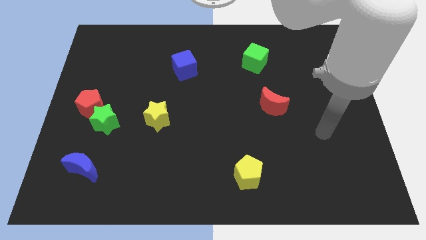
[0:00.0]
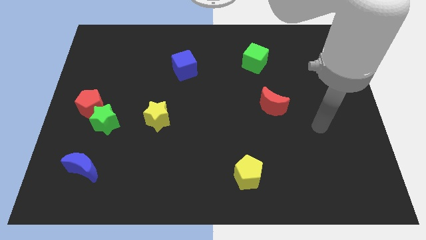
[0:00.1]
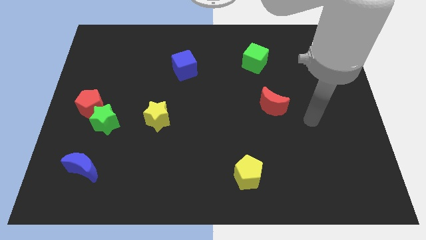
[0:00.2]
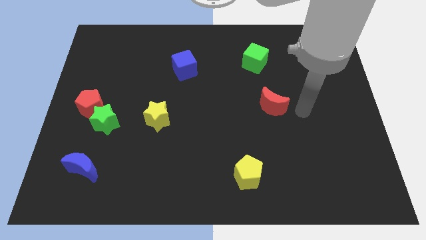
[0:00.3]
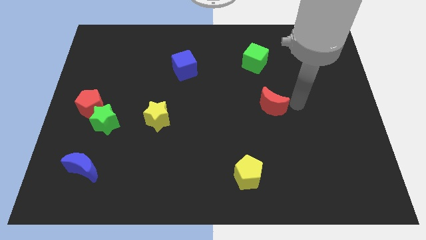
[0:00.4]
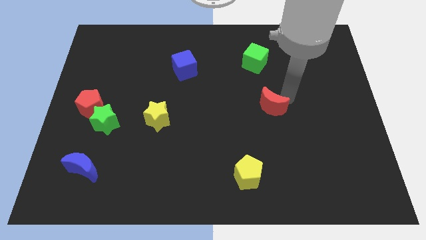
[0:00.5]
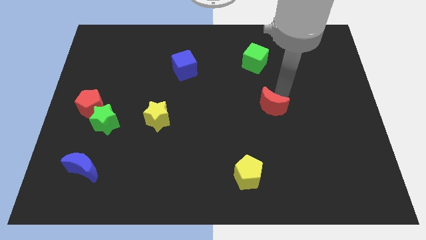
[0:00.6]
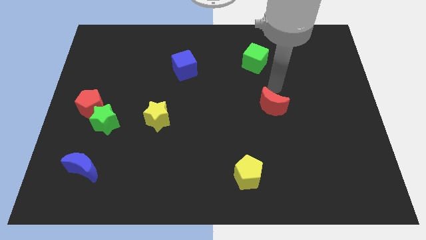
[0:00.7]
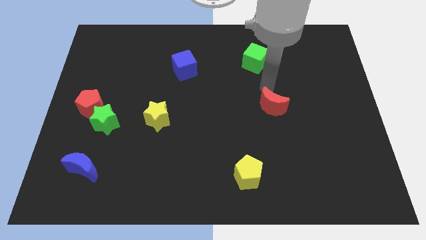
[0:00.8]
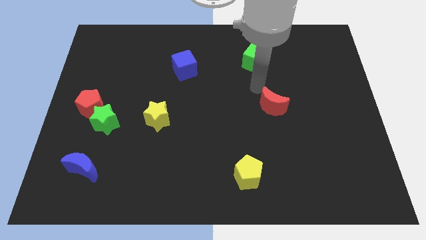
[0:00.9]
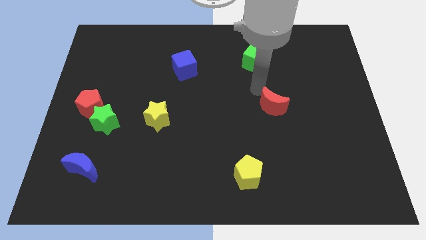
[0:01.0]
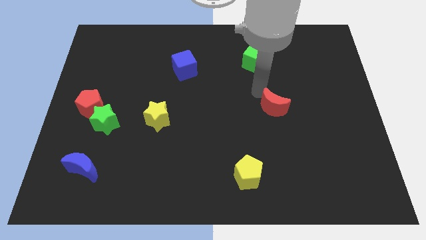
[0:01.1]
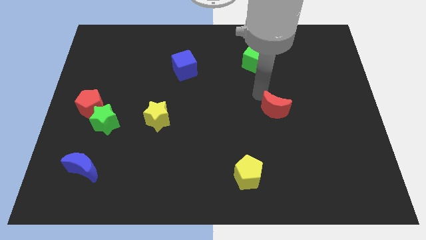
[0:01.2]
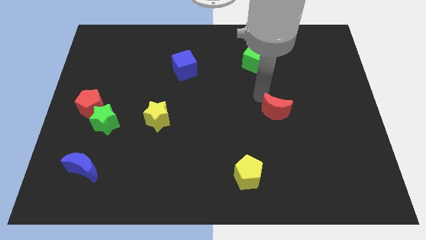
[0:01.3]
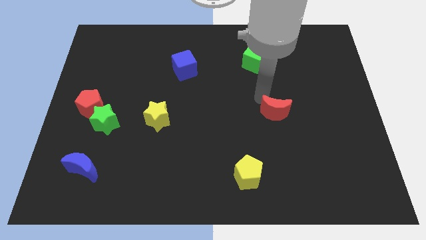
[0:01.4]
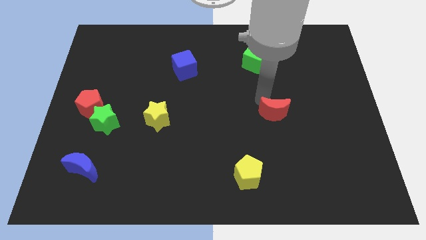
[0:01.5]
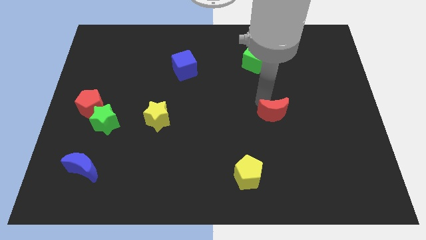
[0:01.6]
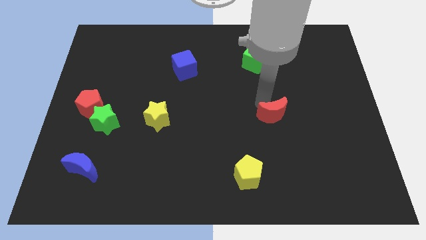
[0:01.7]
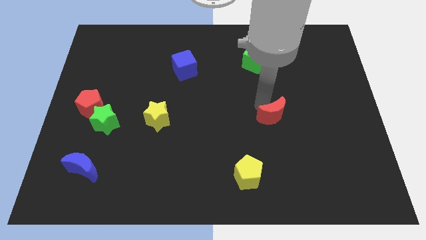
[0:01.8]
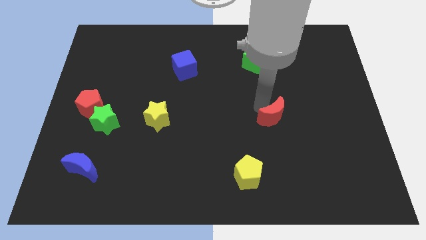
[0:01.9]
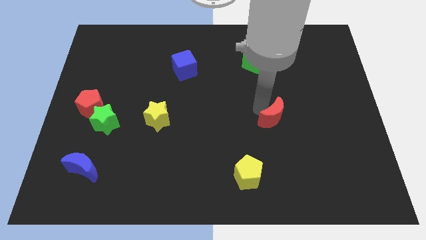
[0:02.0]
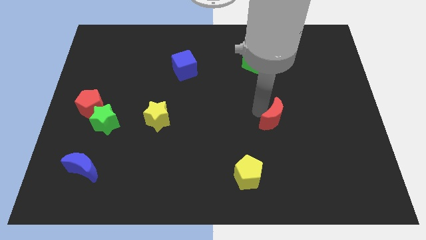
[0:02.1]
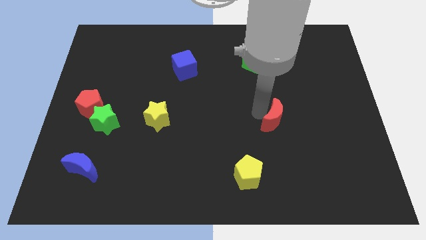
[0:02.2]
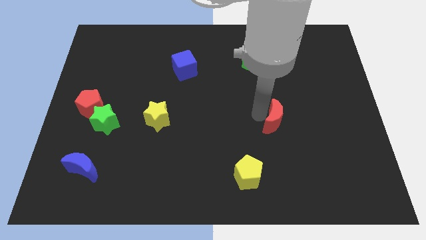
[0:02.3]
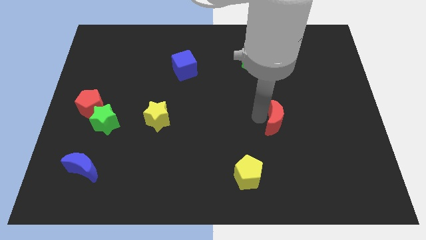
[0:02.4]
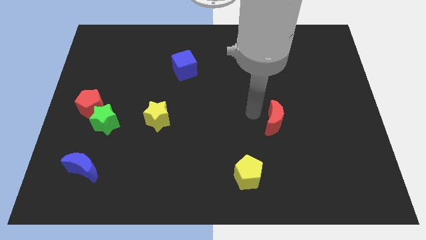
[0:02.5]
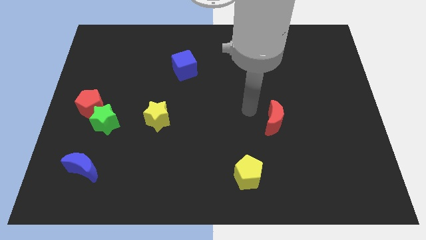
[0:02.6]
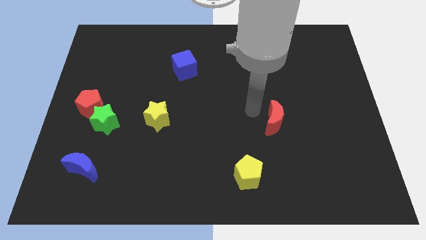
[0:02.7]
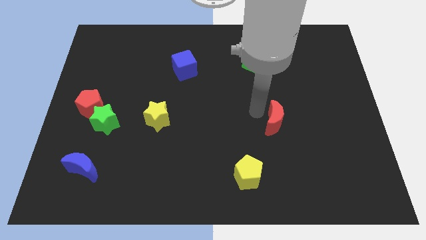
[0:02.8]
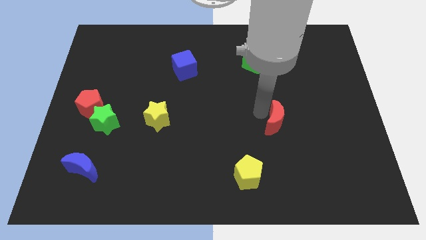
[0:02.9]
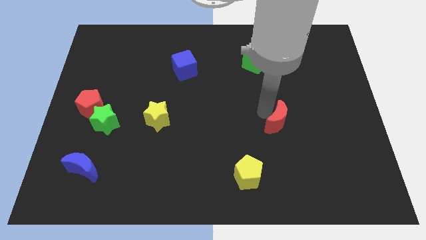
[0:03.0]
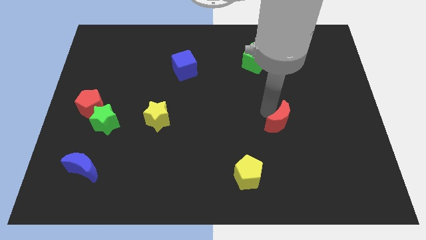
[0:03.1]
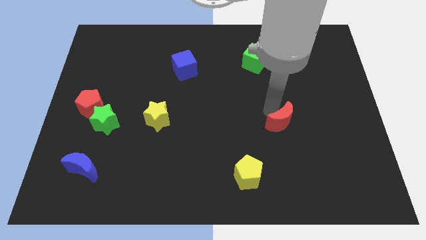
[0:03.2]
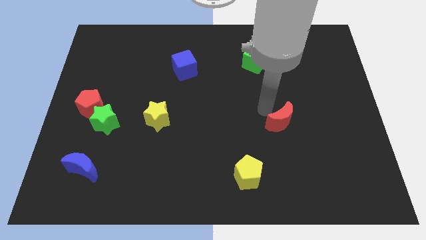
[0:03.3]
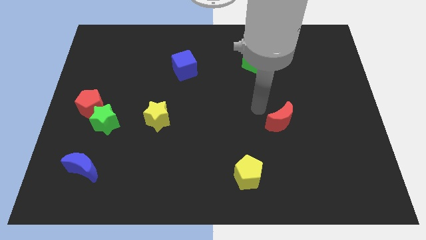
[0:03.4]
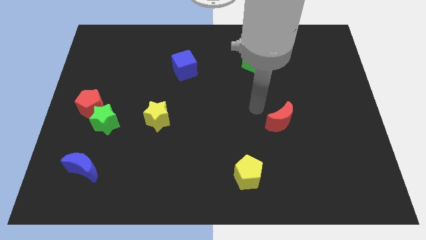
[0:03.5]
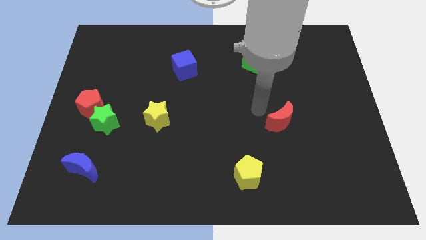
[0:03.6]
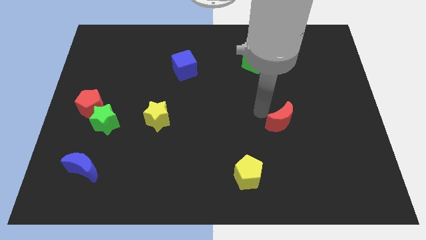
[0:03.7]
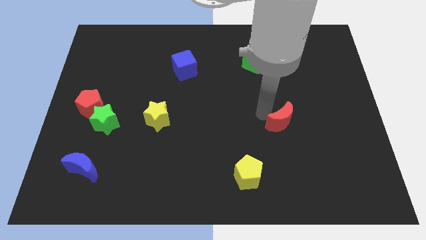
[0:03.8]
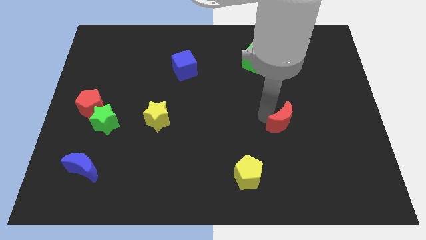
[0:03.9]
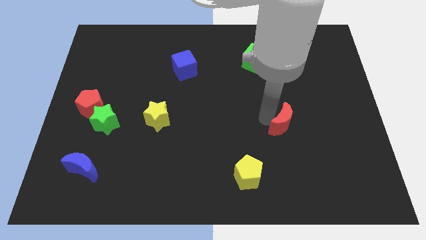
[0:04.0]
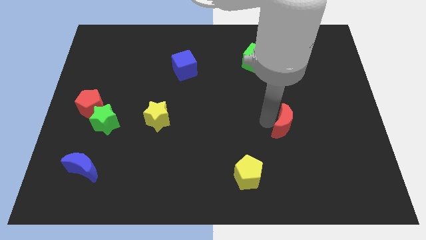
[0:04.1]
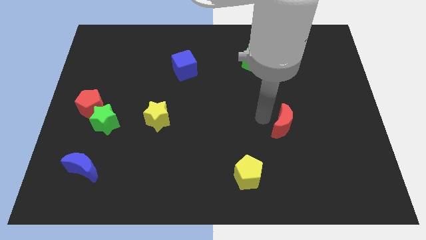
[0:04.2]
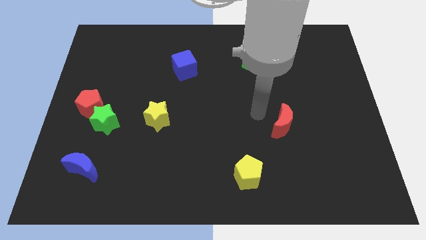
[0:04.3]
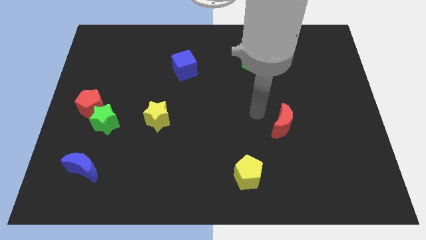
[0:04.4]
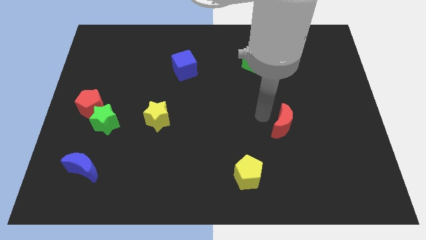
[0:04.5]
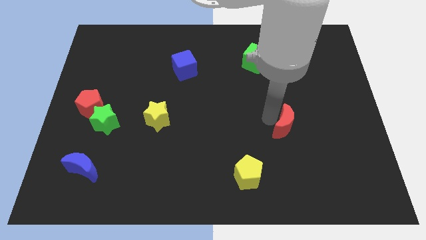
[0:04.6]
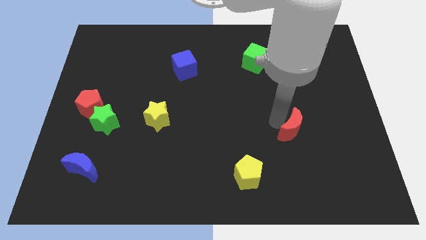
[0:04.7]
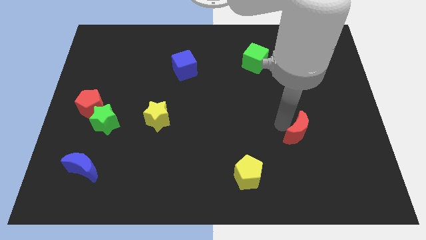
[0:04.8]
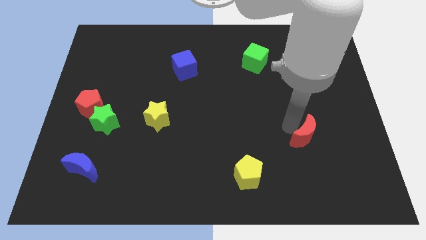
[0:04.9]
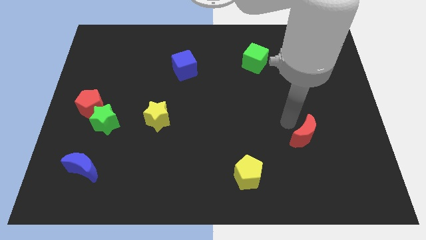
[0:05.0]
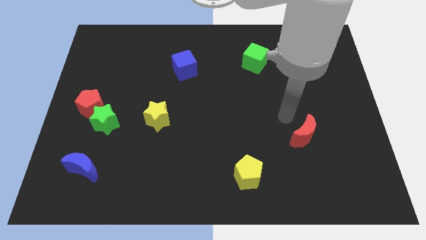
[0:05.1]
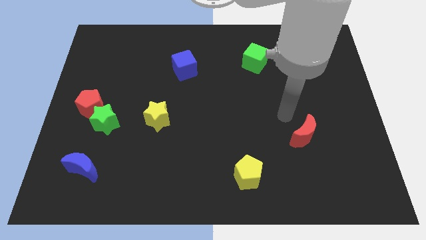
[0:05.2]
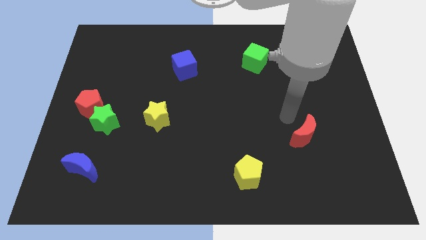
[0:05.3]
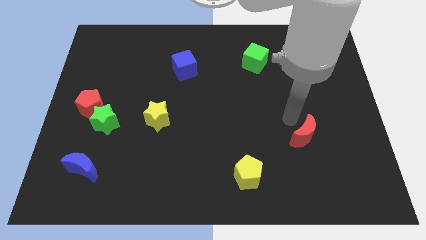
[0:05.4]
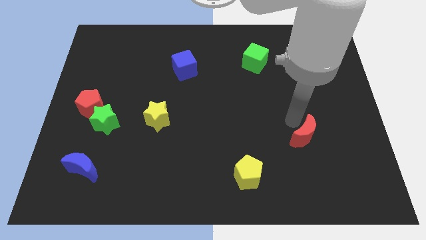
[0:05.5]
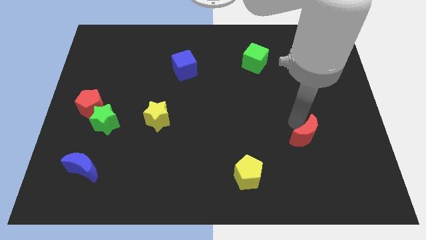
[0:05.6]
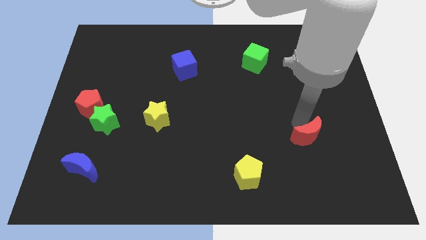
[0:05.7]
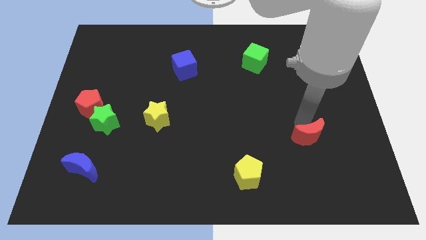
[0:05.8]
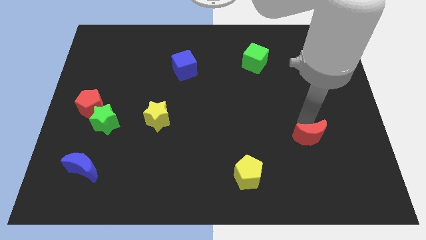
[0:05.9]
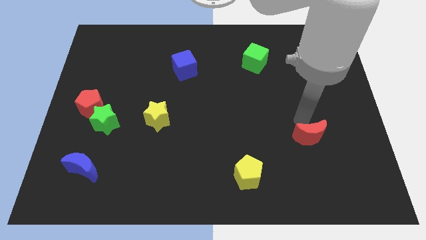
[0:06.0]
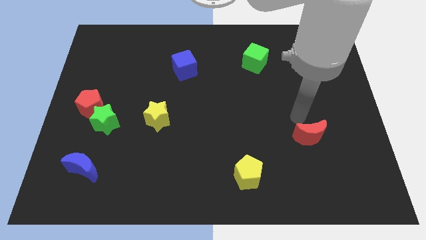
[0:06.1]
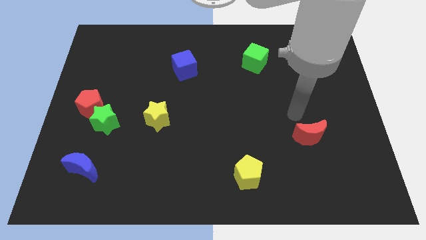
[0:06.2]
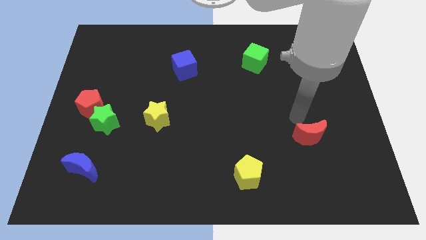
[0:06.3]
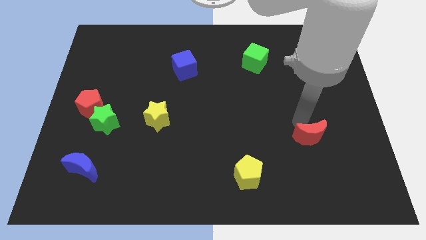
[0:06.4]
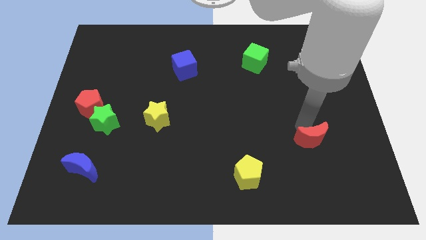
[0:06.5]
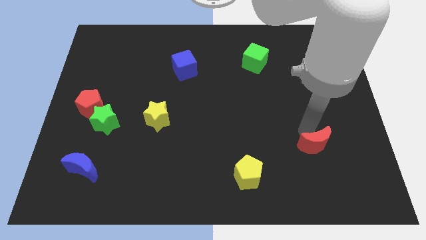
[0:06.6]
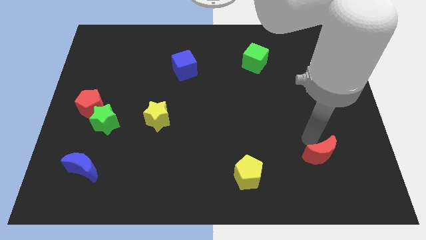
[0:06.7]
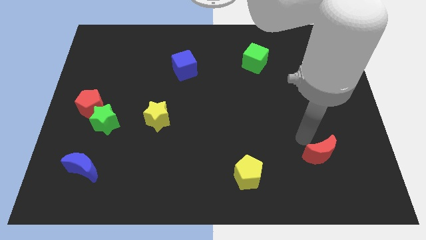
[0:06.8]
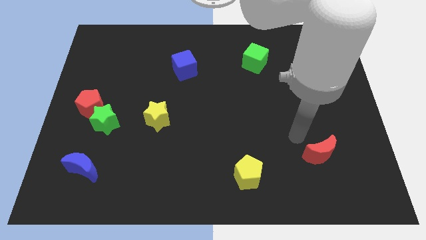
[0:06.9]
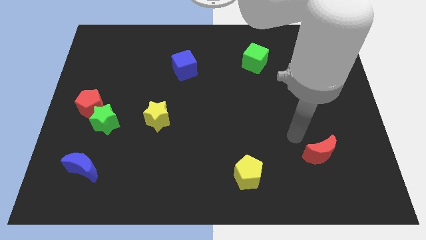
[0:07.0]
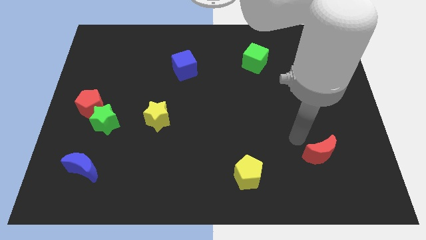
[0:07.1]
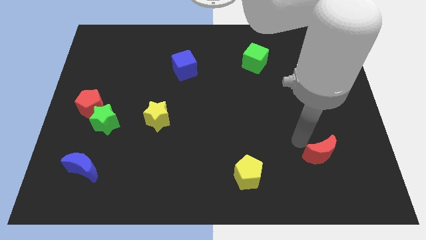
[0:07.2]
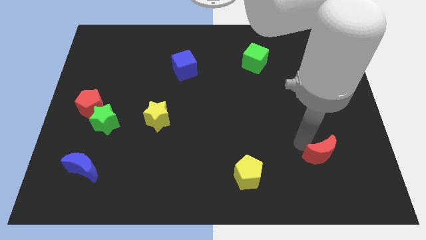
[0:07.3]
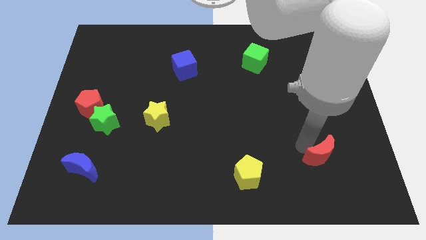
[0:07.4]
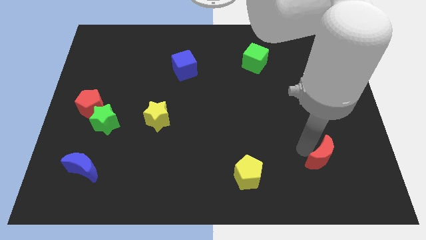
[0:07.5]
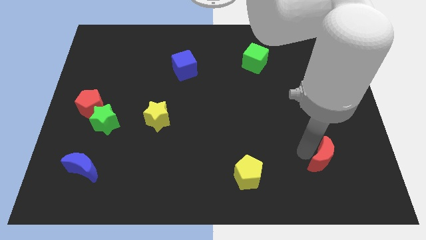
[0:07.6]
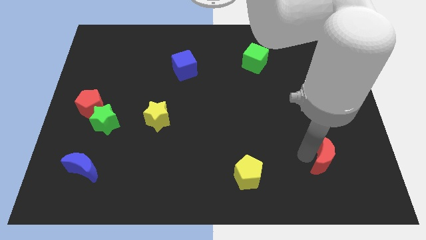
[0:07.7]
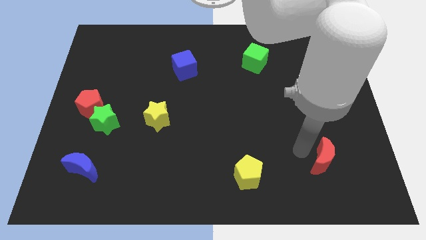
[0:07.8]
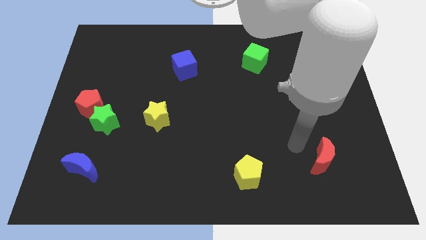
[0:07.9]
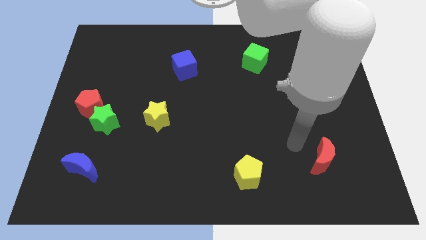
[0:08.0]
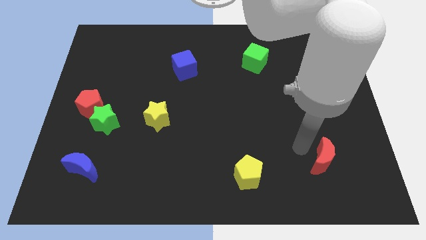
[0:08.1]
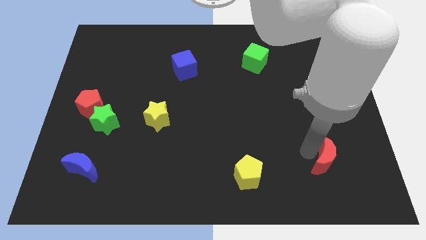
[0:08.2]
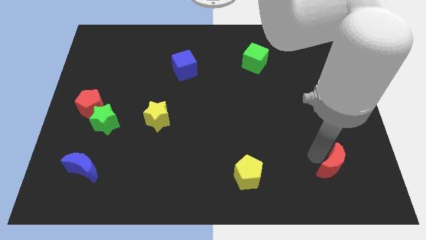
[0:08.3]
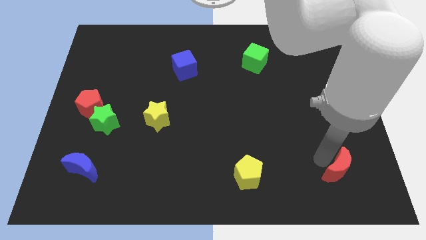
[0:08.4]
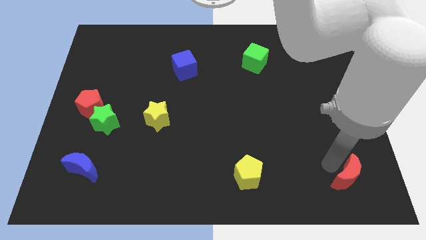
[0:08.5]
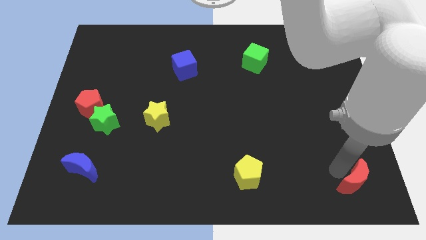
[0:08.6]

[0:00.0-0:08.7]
move the red moon to the bottom right
